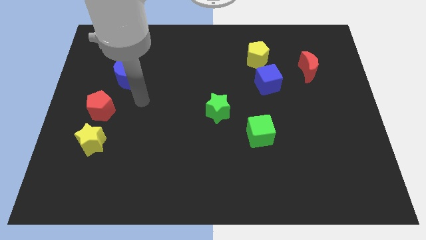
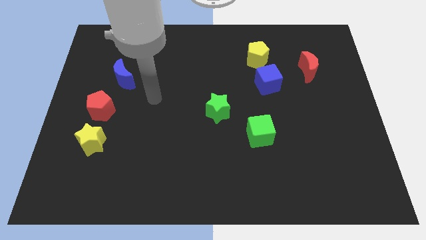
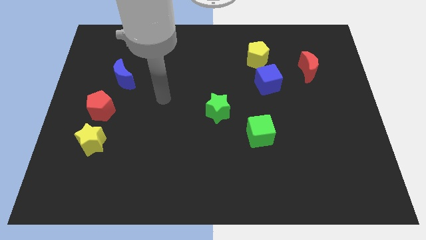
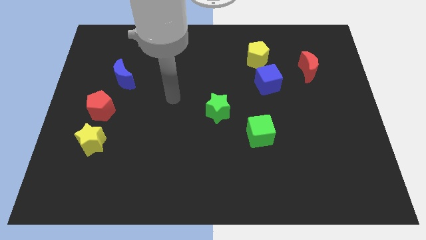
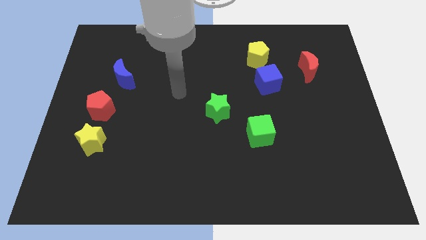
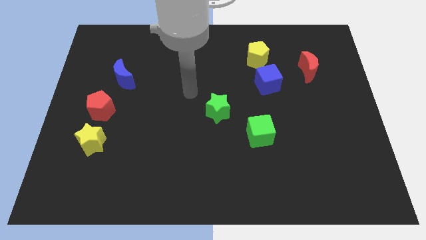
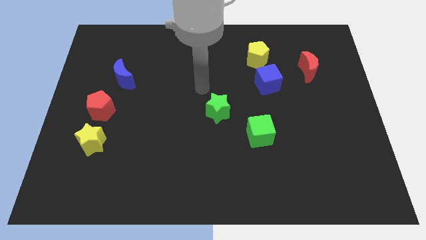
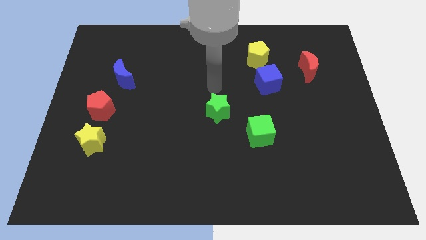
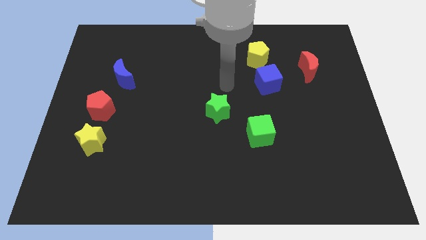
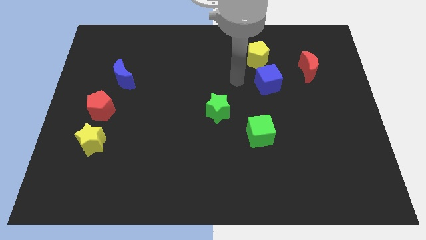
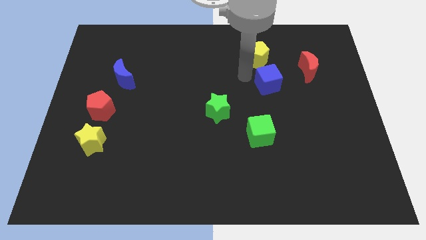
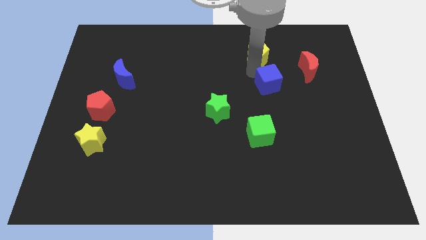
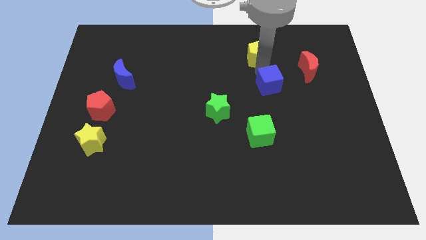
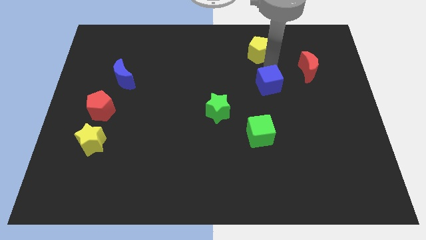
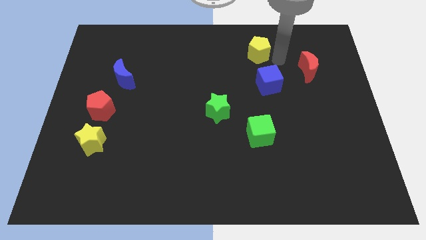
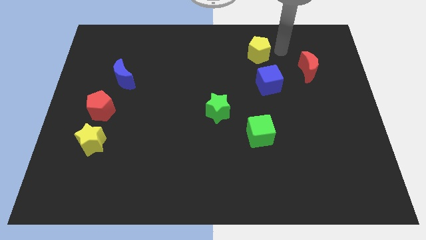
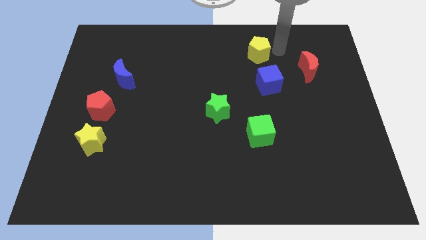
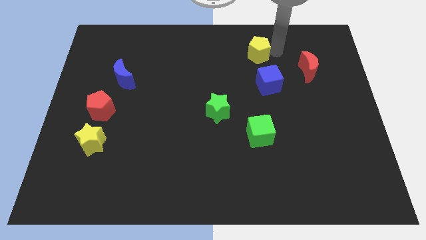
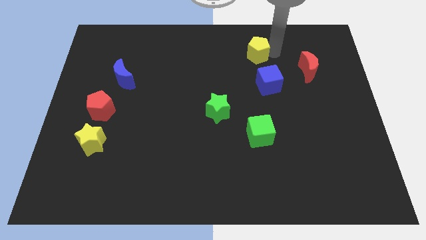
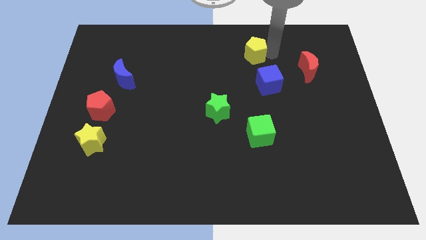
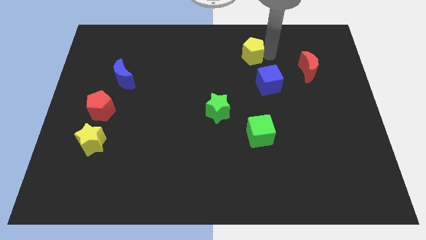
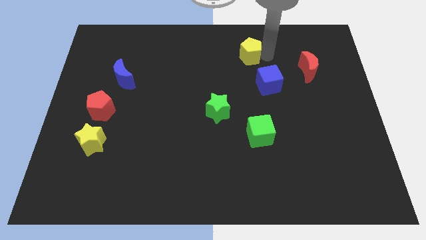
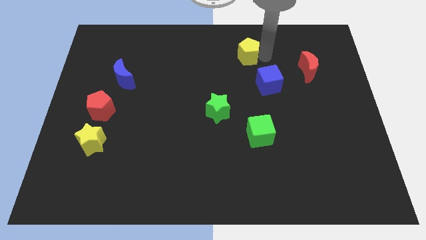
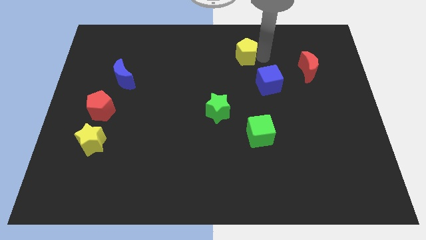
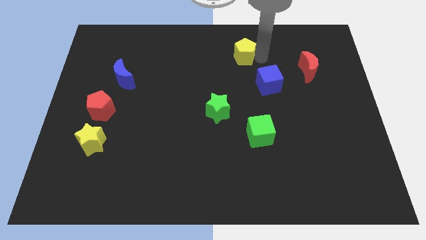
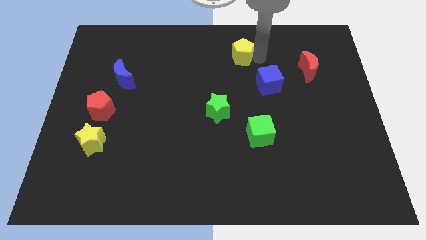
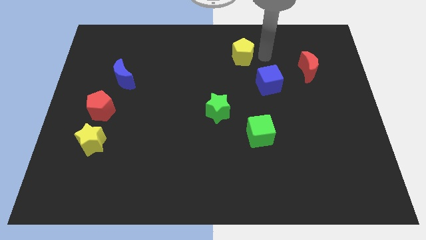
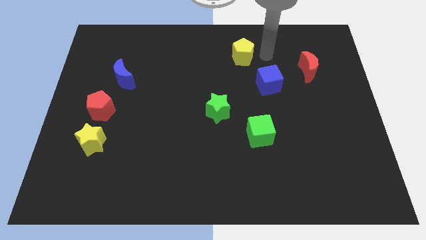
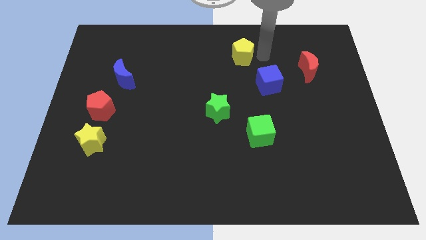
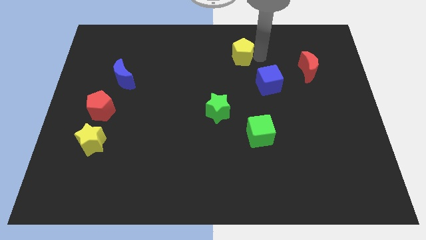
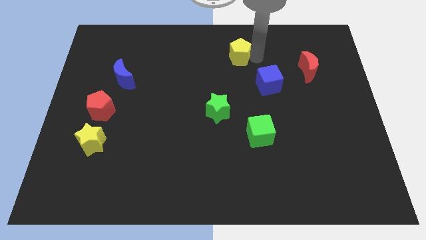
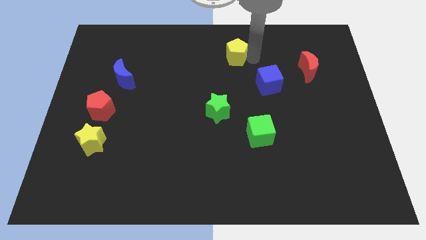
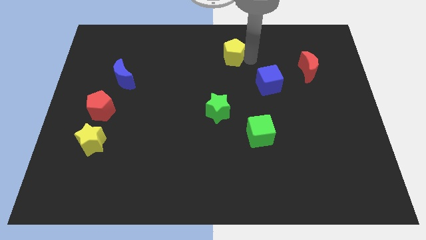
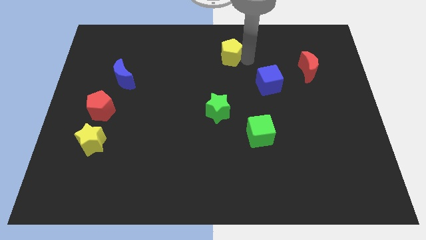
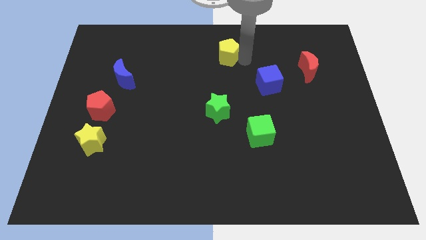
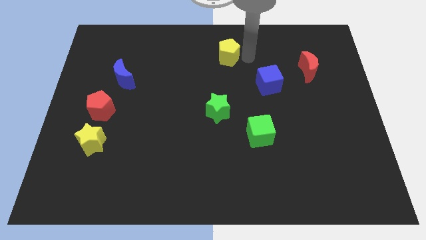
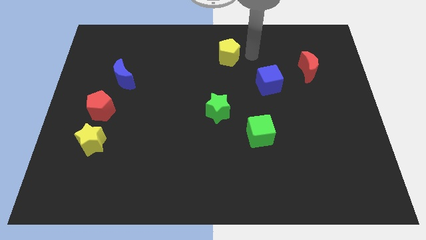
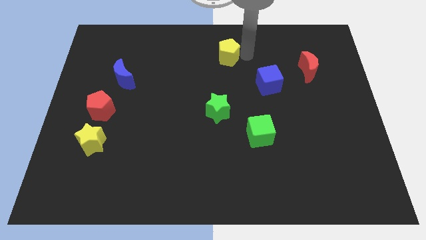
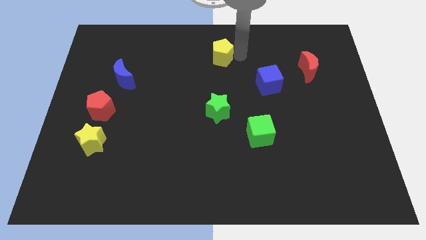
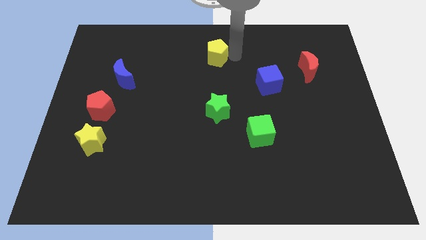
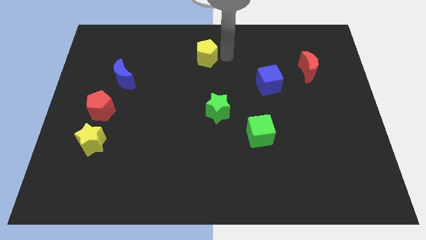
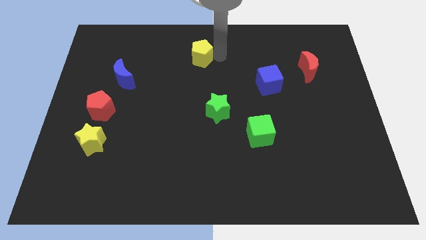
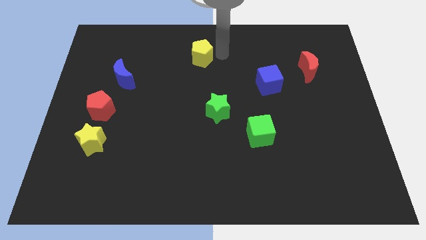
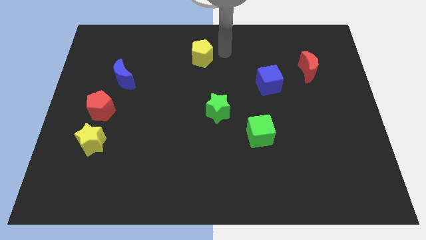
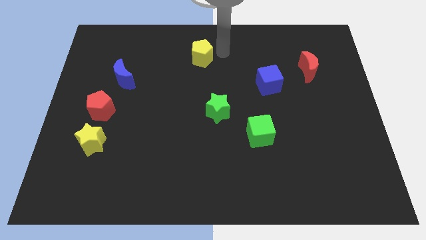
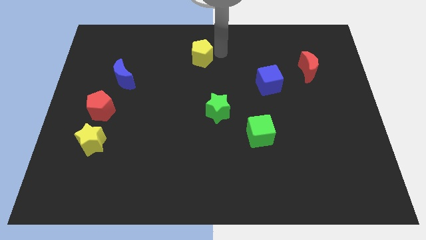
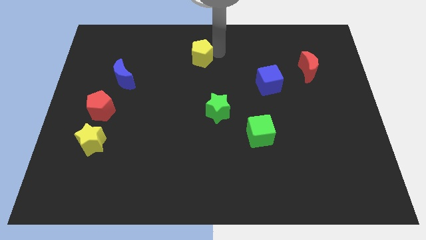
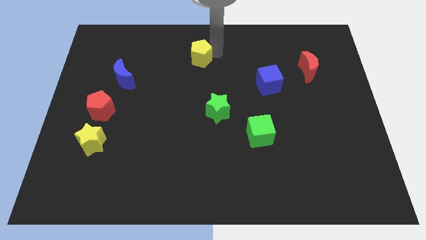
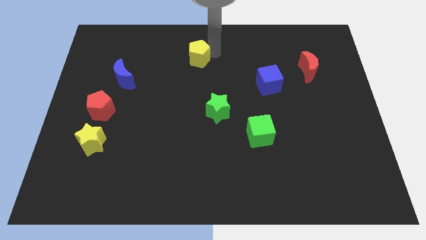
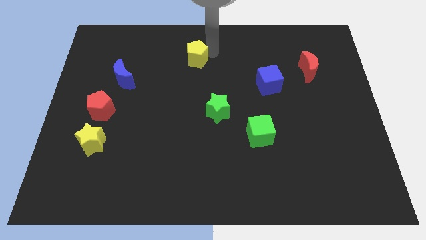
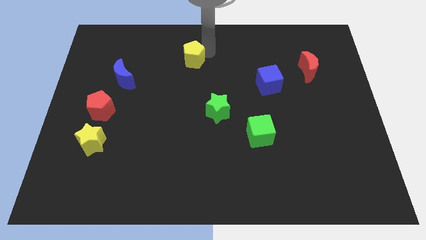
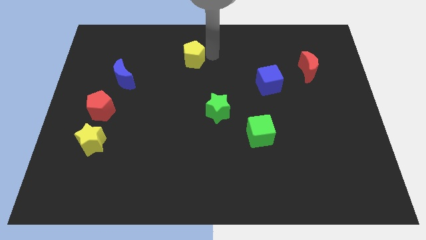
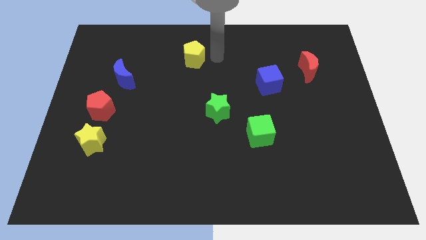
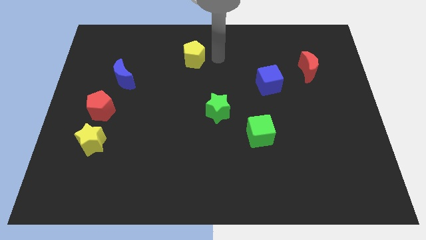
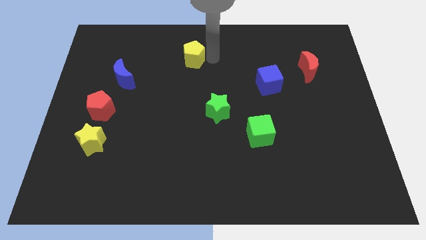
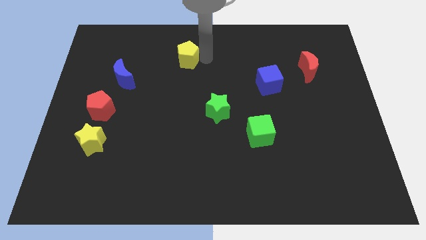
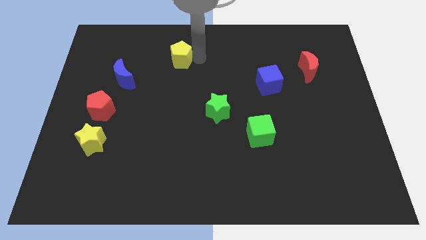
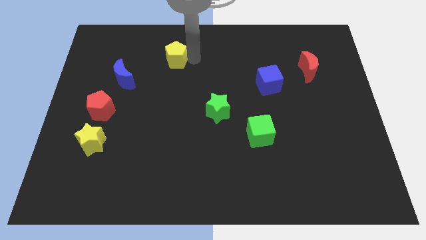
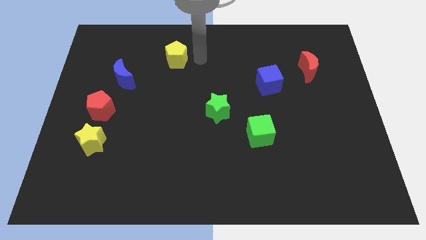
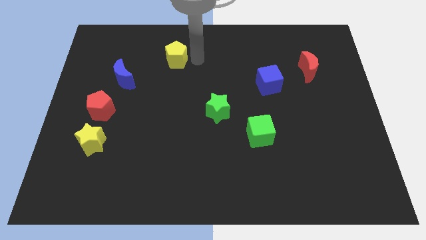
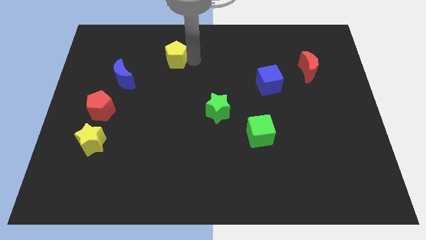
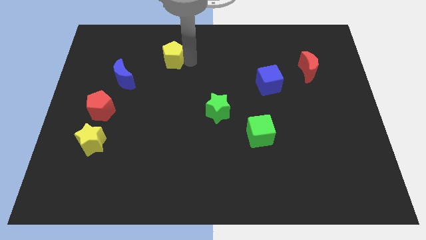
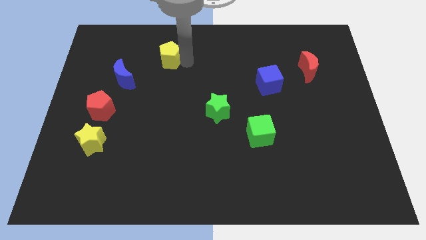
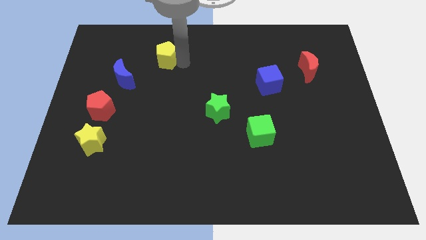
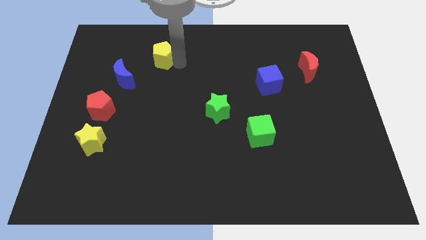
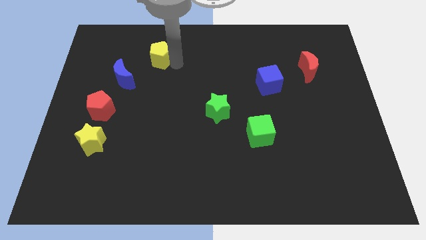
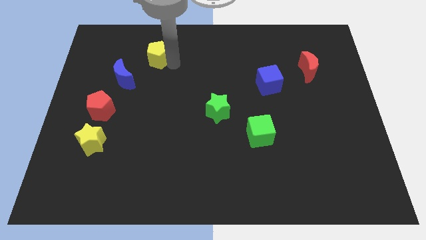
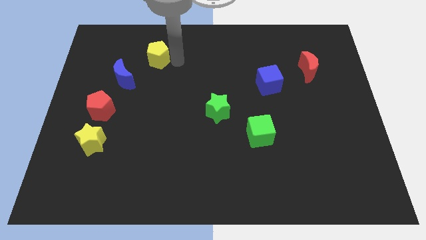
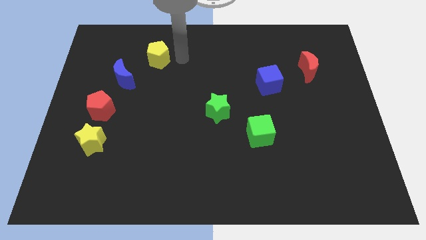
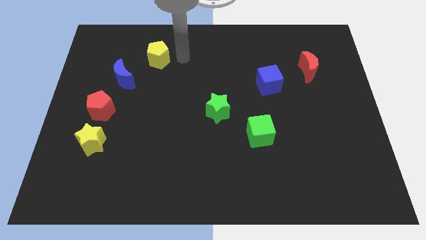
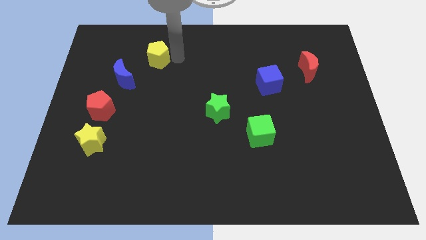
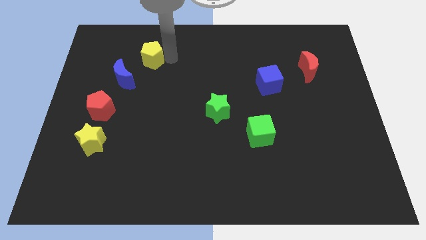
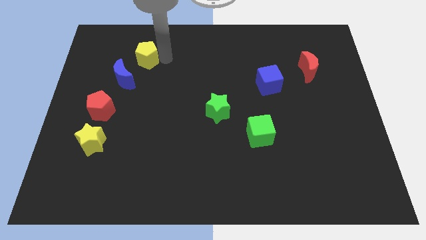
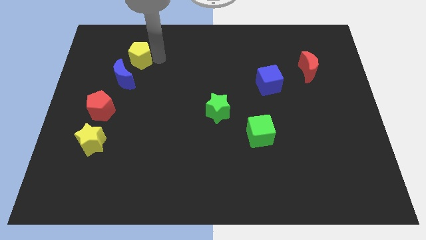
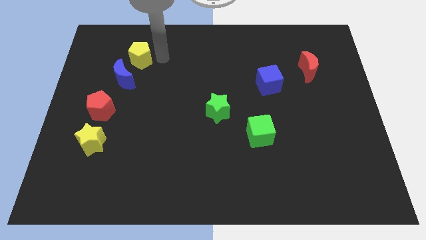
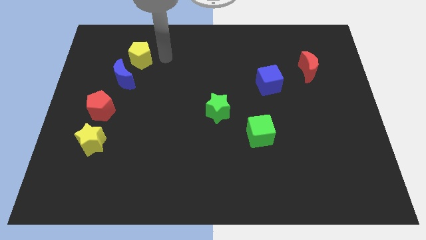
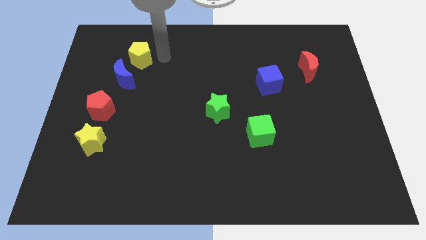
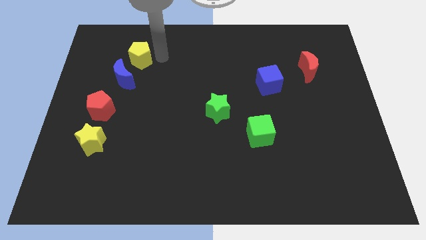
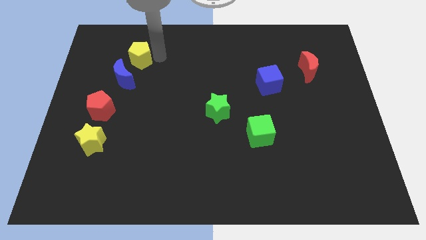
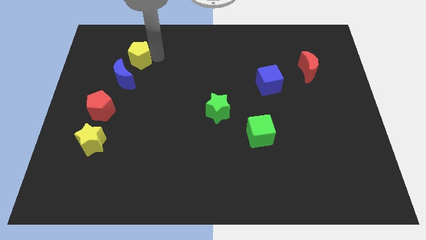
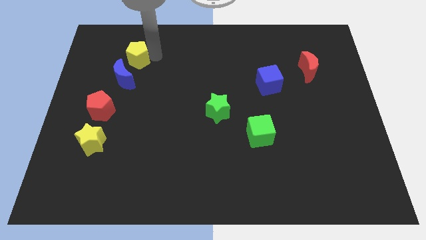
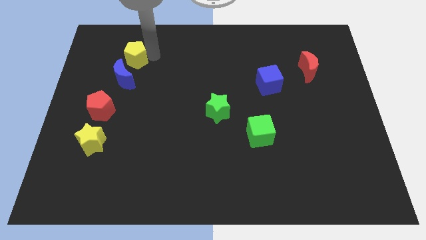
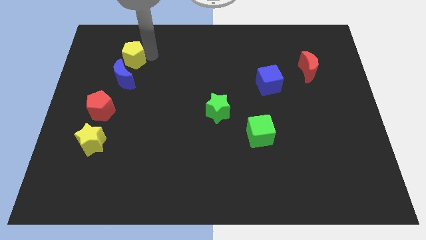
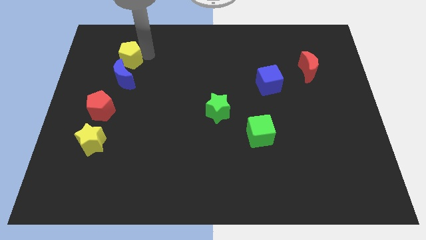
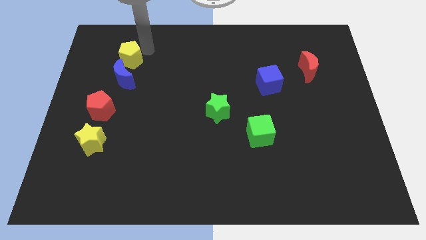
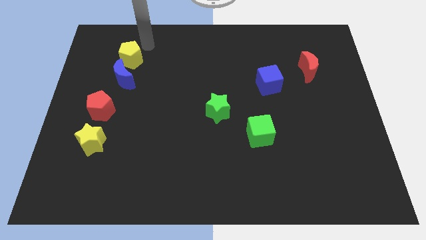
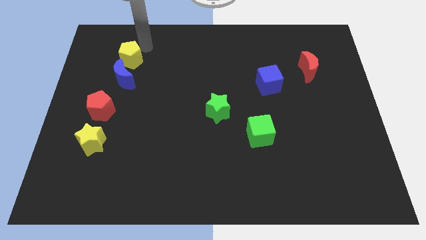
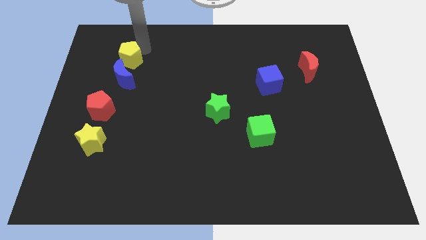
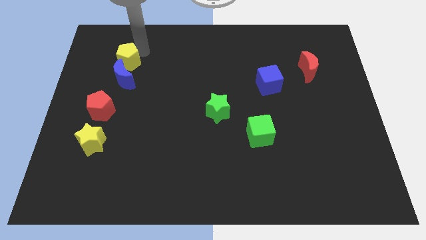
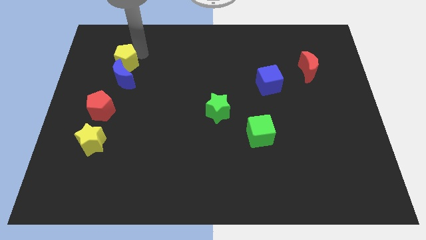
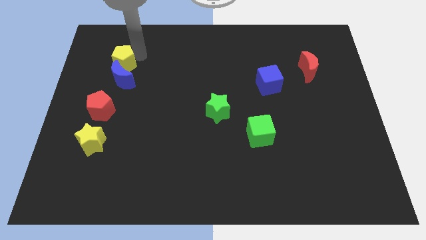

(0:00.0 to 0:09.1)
put the yellow pentagon to the top side of the red pentagon
